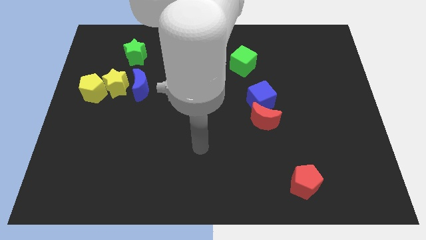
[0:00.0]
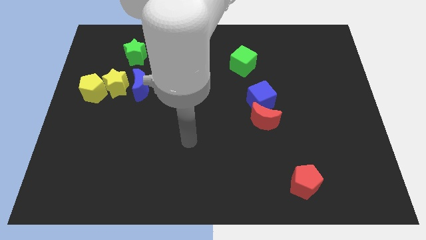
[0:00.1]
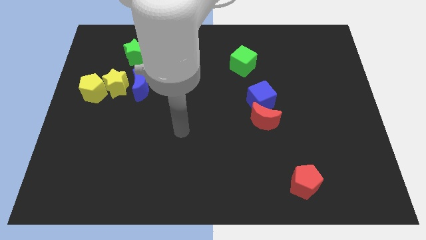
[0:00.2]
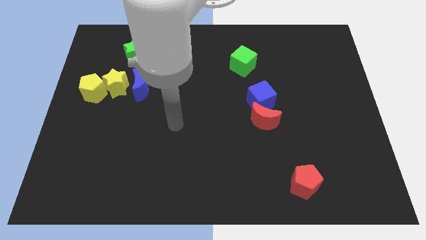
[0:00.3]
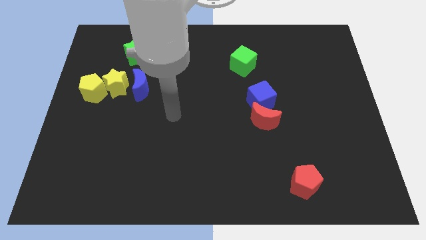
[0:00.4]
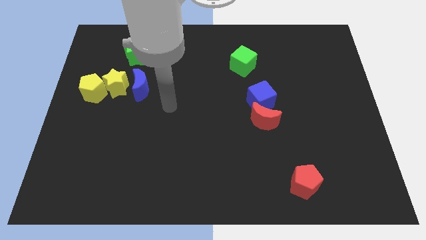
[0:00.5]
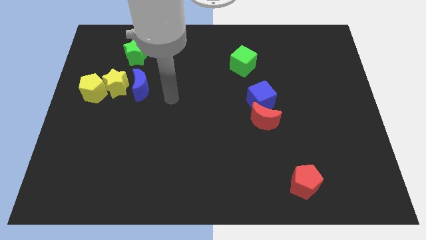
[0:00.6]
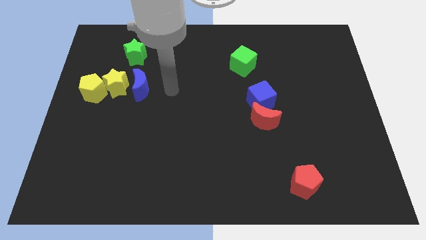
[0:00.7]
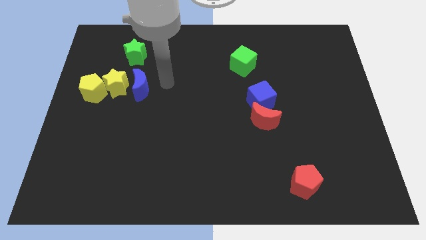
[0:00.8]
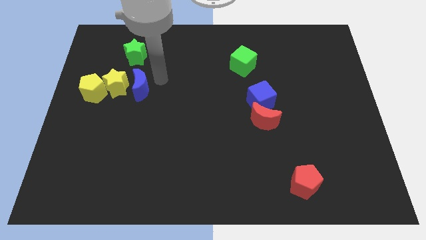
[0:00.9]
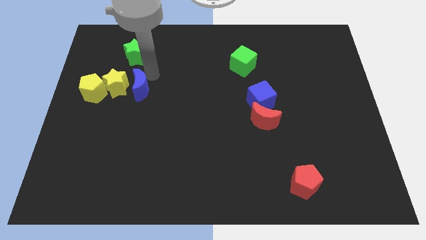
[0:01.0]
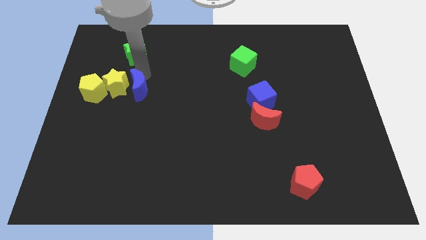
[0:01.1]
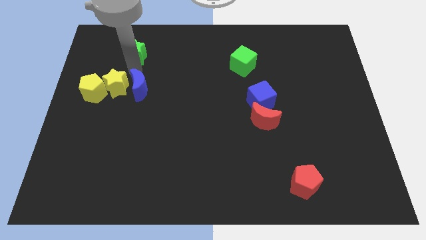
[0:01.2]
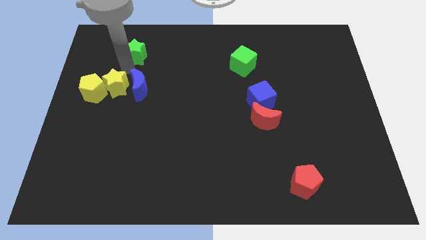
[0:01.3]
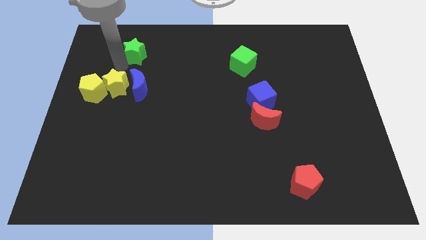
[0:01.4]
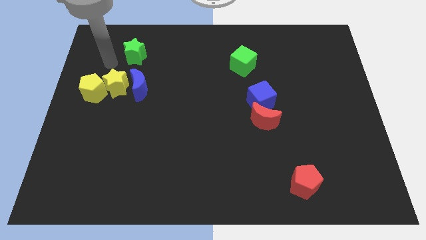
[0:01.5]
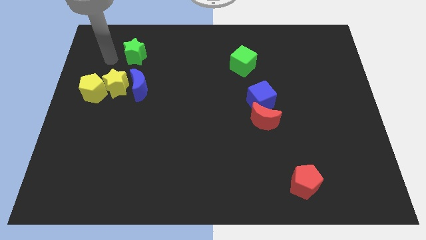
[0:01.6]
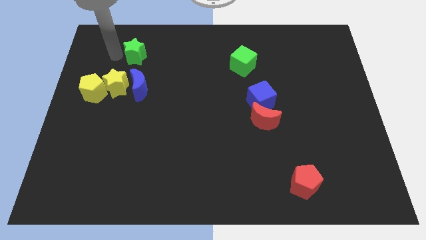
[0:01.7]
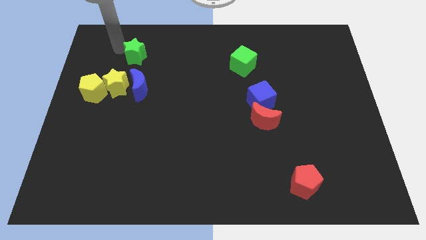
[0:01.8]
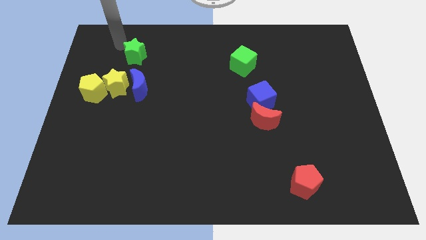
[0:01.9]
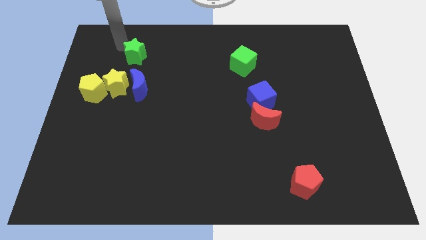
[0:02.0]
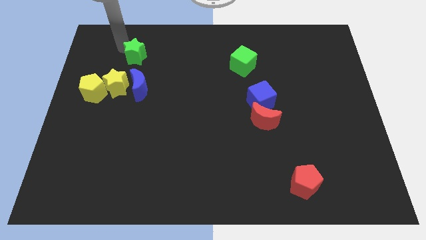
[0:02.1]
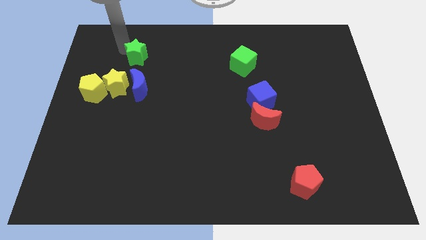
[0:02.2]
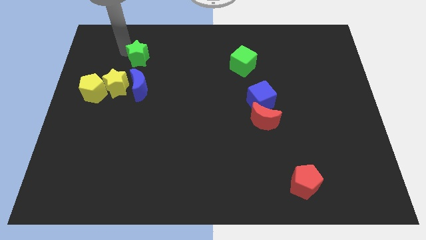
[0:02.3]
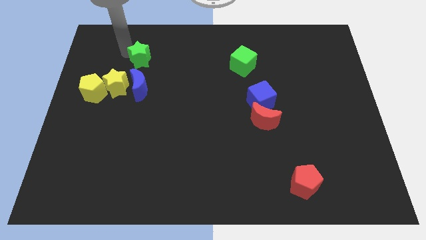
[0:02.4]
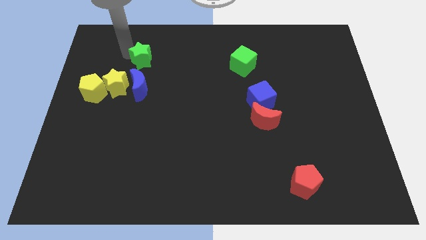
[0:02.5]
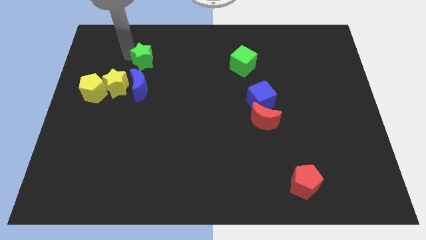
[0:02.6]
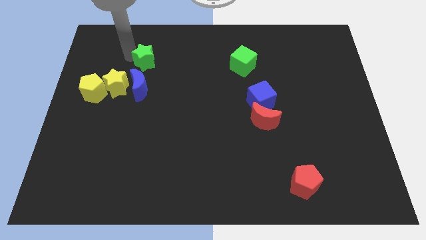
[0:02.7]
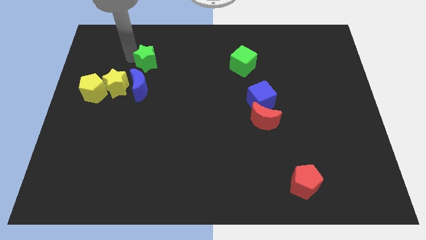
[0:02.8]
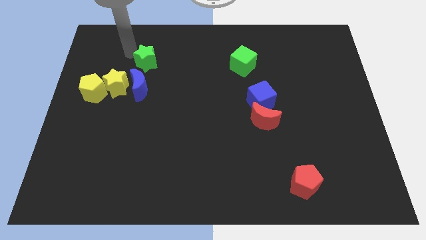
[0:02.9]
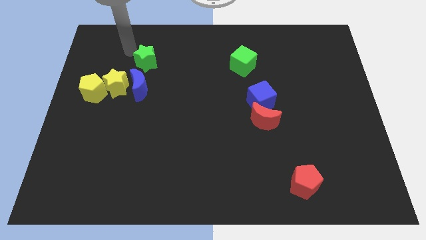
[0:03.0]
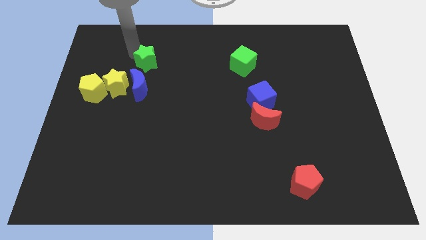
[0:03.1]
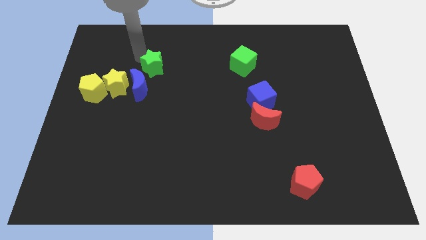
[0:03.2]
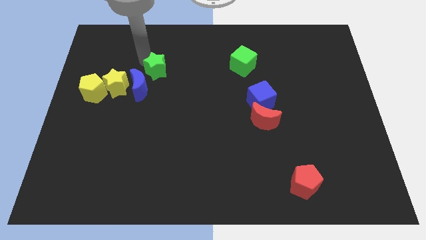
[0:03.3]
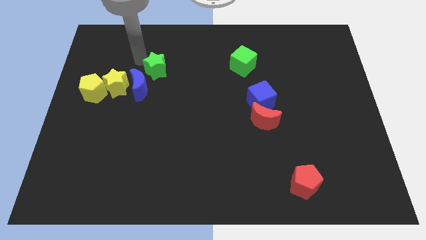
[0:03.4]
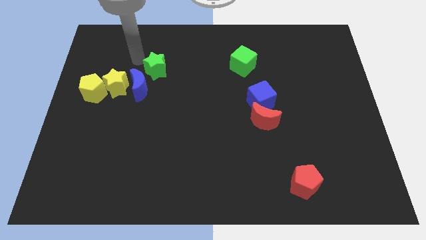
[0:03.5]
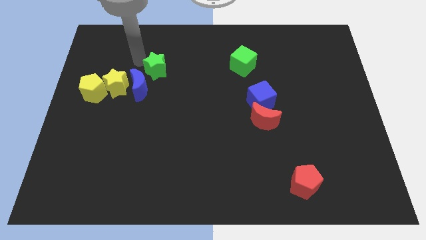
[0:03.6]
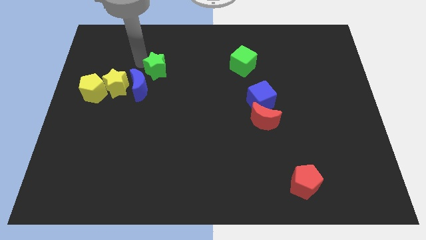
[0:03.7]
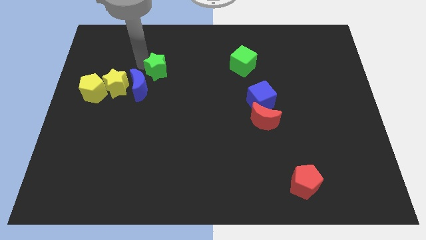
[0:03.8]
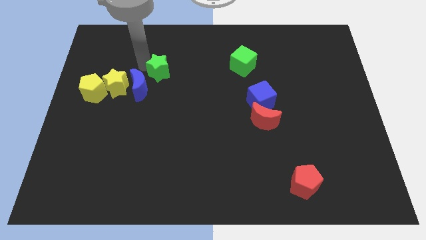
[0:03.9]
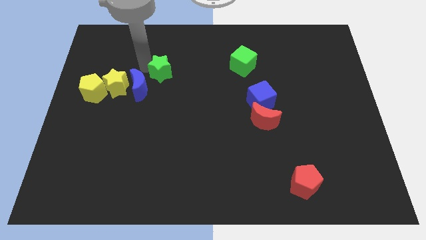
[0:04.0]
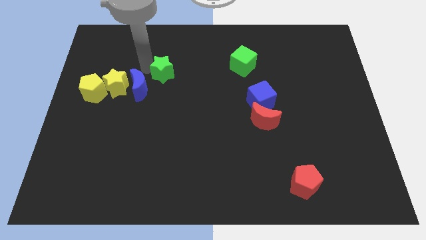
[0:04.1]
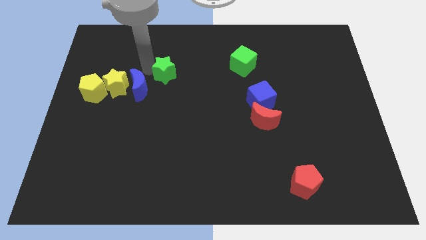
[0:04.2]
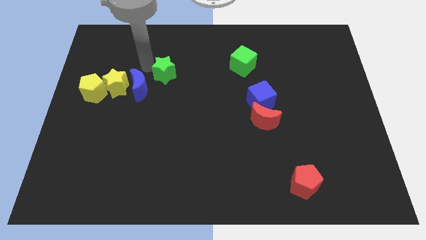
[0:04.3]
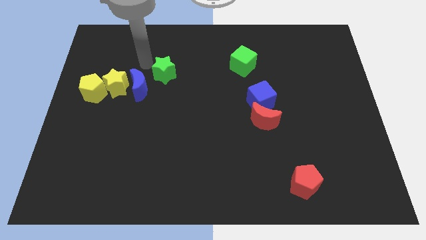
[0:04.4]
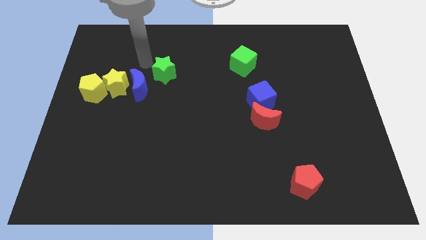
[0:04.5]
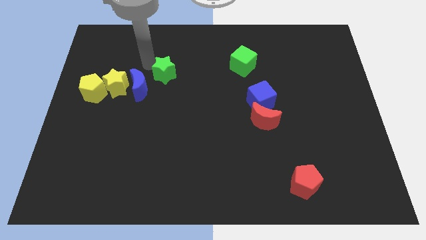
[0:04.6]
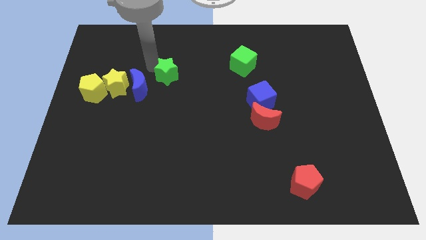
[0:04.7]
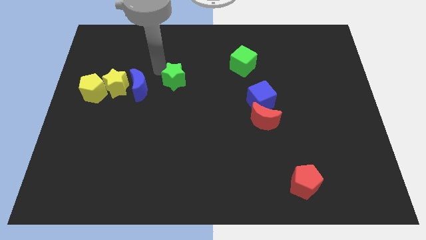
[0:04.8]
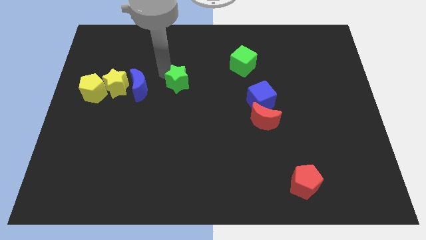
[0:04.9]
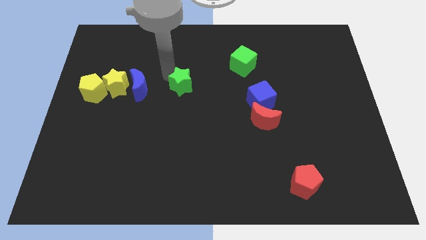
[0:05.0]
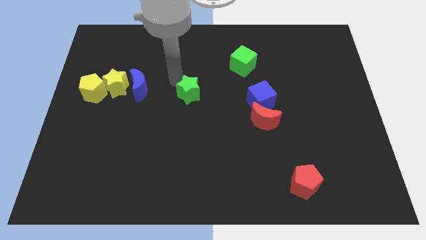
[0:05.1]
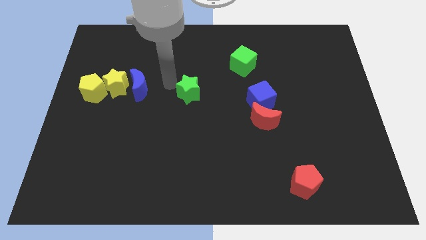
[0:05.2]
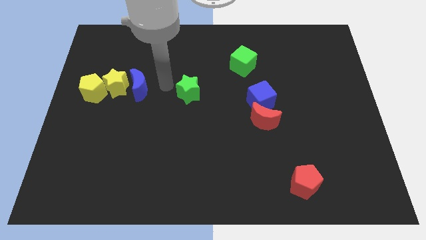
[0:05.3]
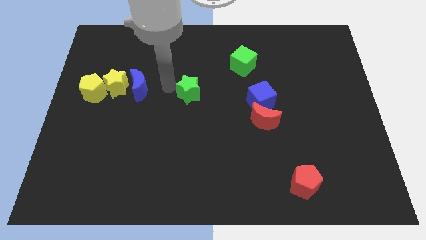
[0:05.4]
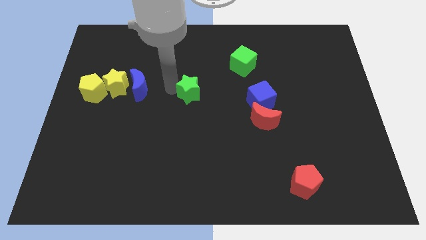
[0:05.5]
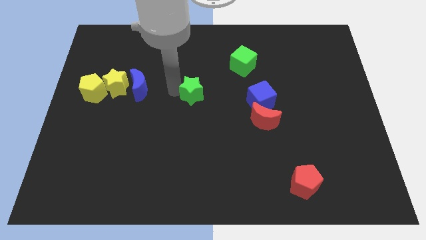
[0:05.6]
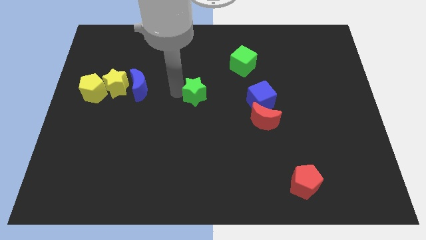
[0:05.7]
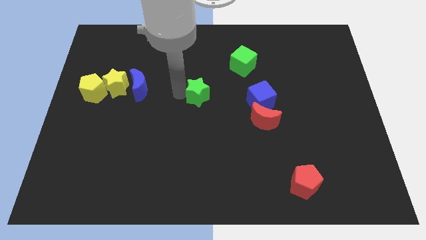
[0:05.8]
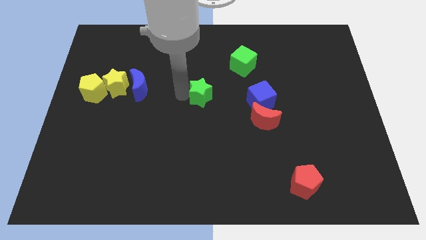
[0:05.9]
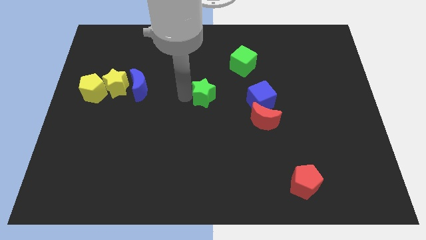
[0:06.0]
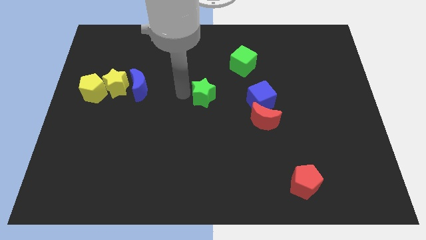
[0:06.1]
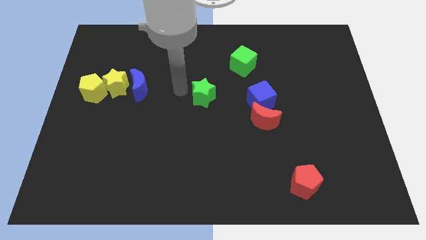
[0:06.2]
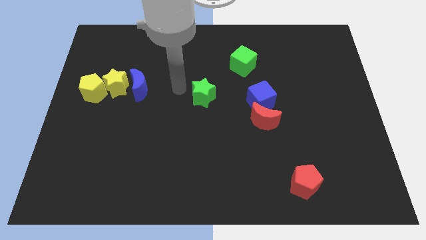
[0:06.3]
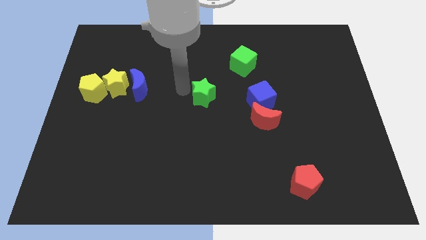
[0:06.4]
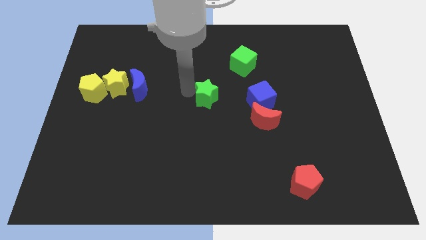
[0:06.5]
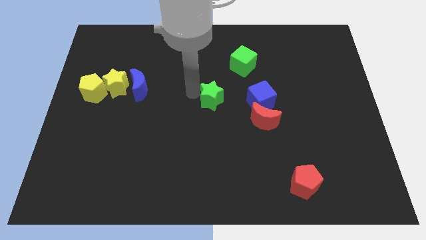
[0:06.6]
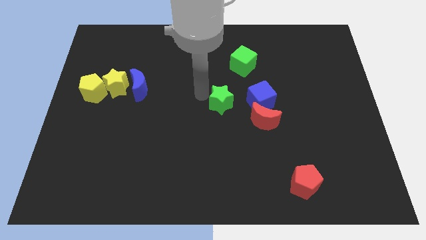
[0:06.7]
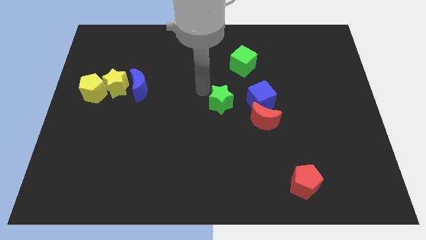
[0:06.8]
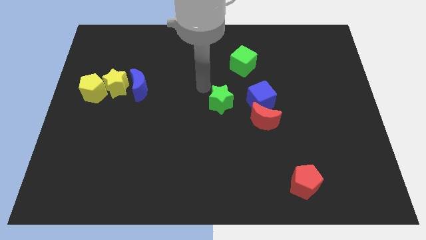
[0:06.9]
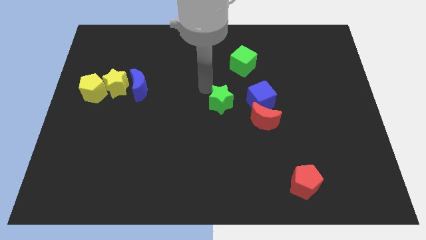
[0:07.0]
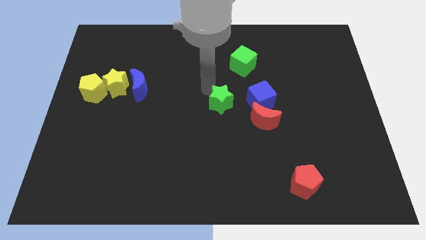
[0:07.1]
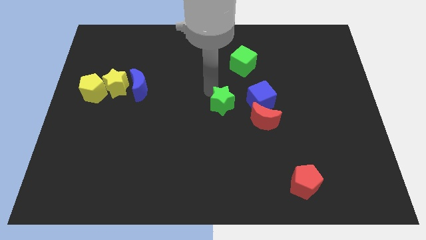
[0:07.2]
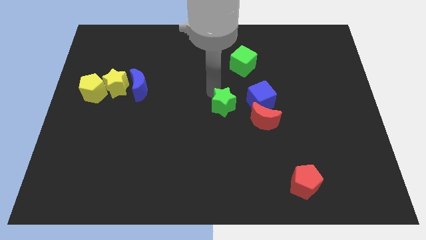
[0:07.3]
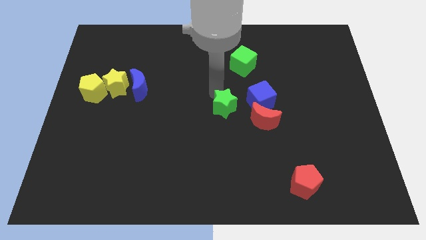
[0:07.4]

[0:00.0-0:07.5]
move the green star to the bottom left of the blue cube
